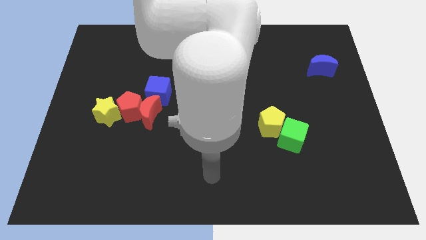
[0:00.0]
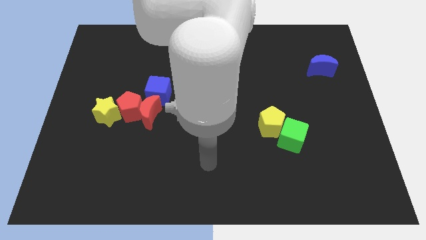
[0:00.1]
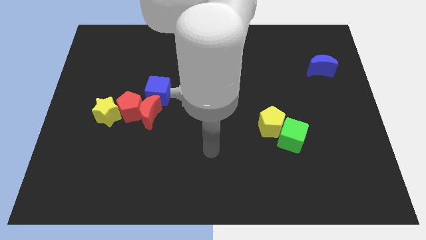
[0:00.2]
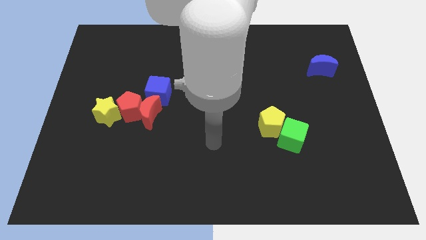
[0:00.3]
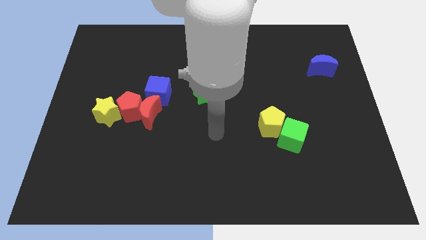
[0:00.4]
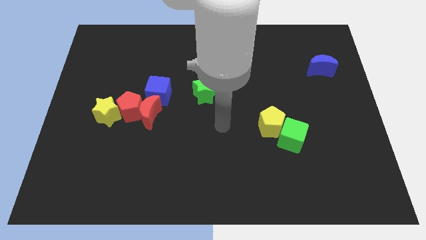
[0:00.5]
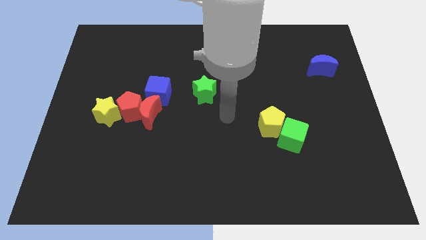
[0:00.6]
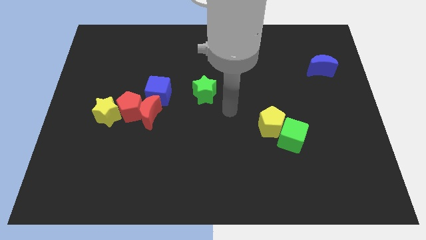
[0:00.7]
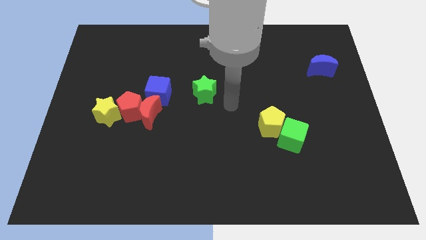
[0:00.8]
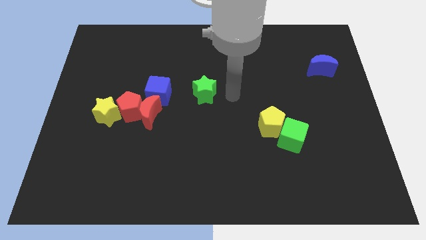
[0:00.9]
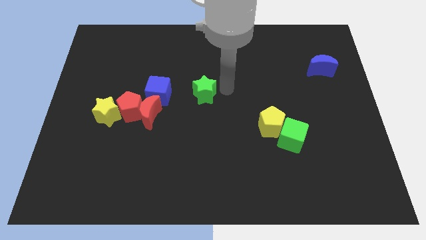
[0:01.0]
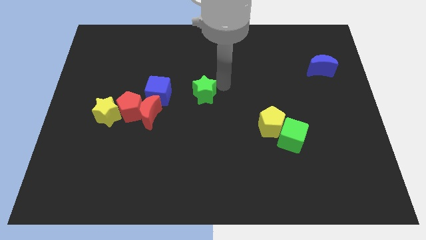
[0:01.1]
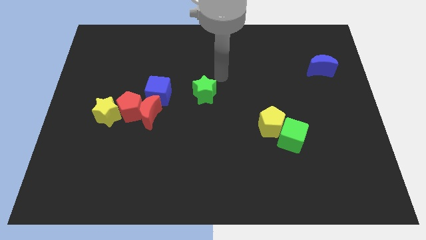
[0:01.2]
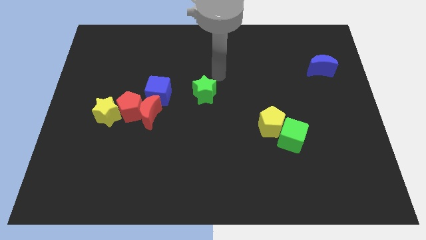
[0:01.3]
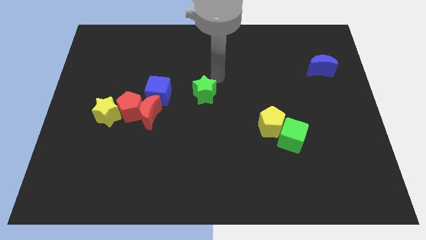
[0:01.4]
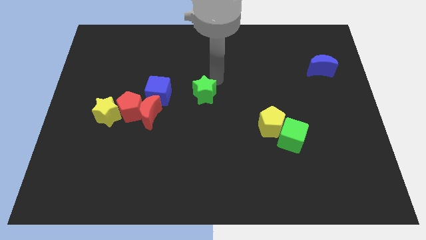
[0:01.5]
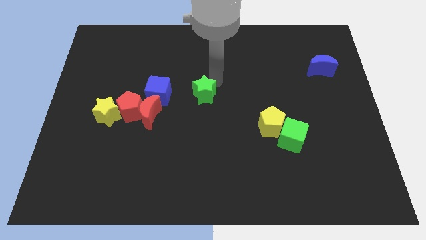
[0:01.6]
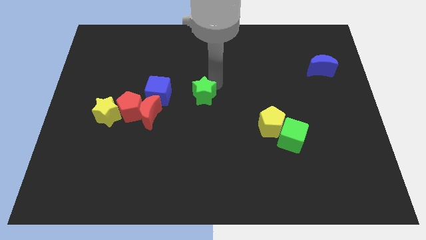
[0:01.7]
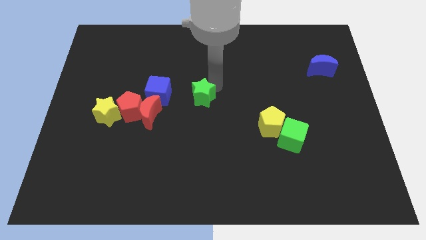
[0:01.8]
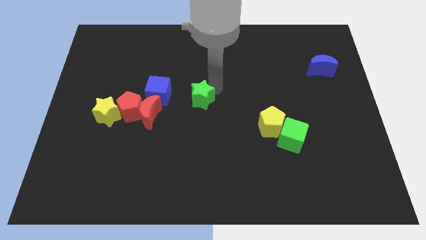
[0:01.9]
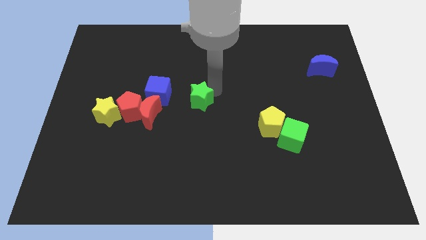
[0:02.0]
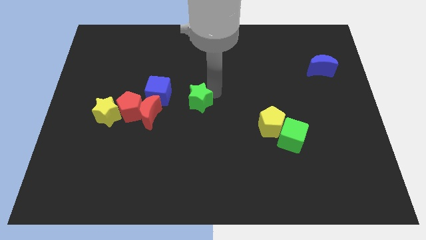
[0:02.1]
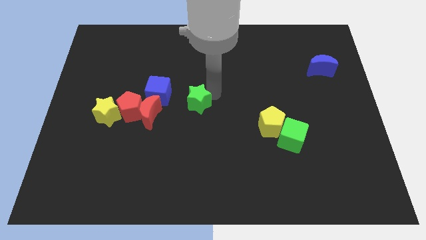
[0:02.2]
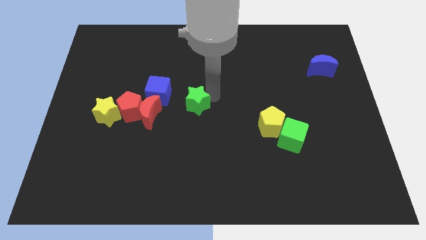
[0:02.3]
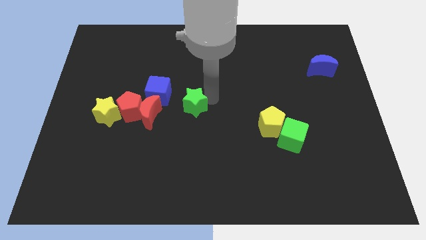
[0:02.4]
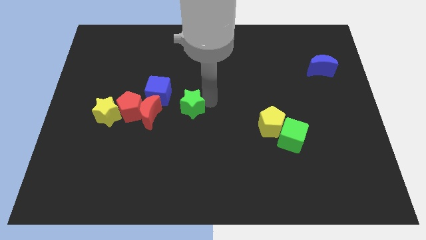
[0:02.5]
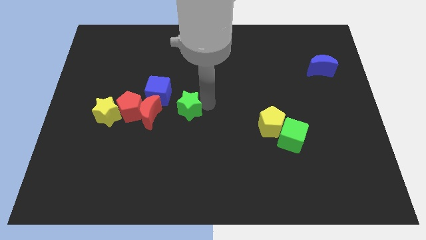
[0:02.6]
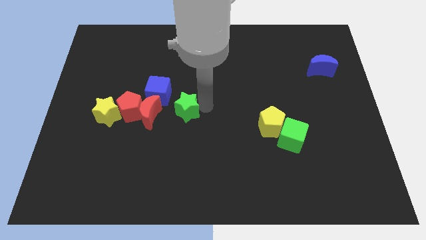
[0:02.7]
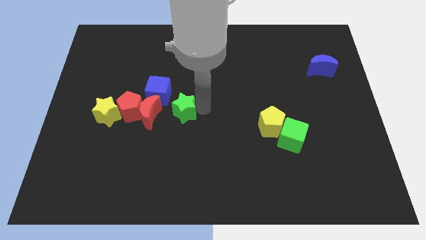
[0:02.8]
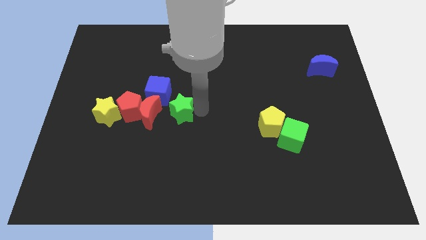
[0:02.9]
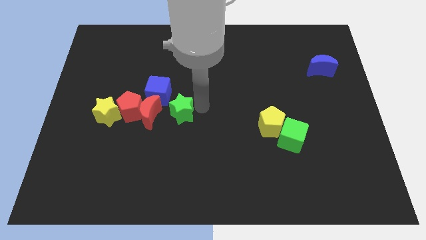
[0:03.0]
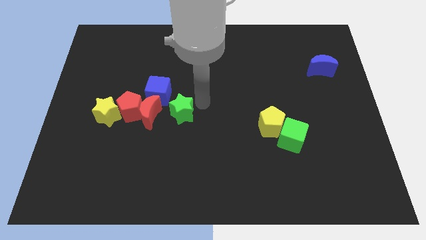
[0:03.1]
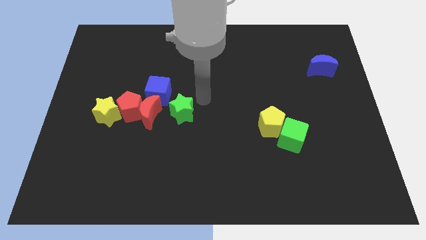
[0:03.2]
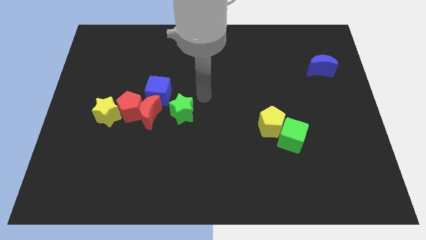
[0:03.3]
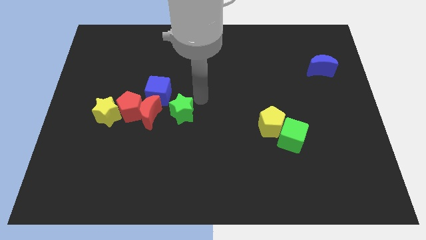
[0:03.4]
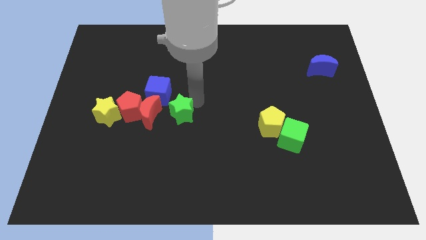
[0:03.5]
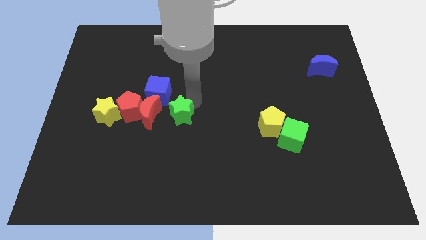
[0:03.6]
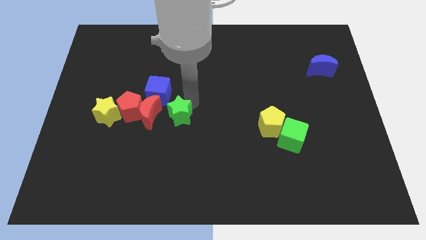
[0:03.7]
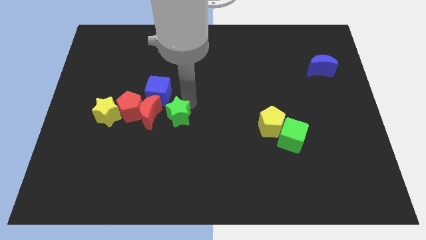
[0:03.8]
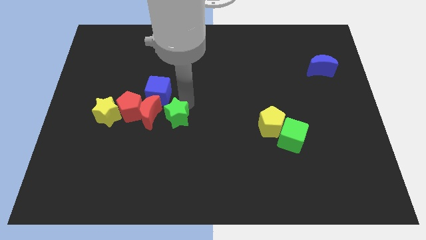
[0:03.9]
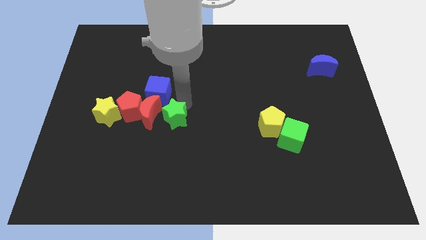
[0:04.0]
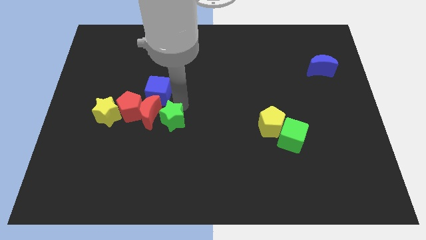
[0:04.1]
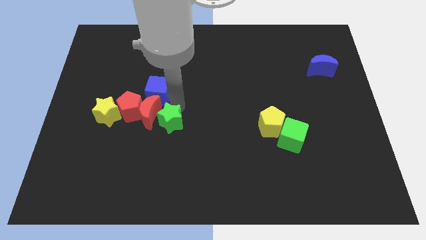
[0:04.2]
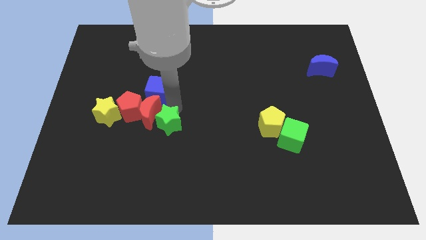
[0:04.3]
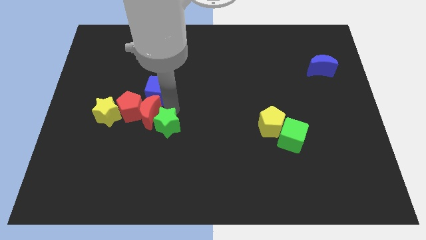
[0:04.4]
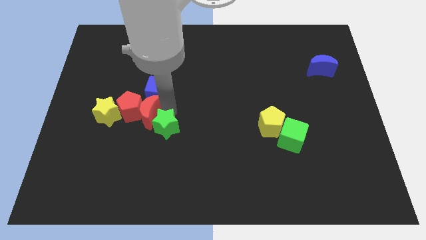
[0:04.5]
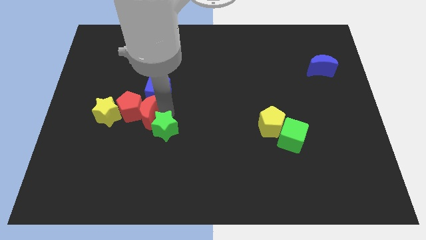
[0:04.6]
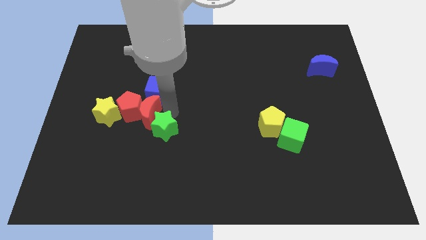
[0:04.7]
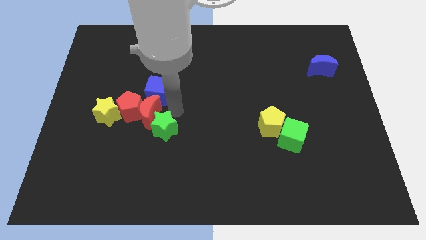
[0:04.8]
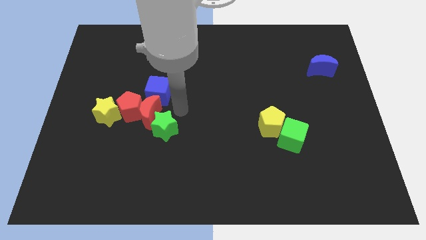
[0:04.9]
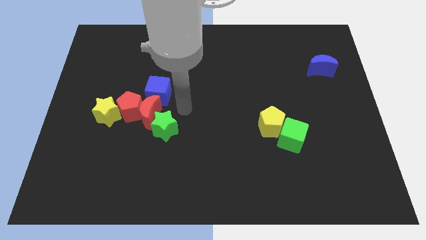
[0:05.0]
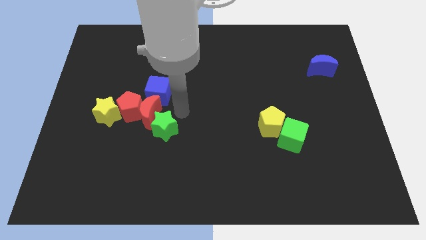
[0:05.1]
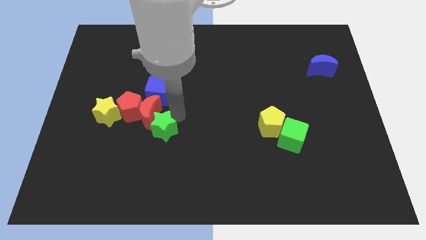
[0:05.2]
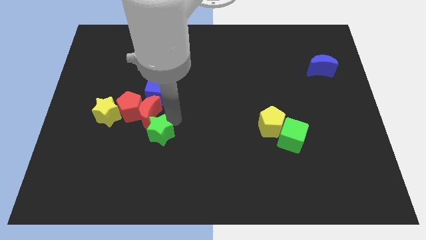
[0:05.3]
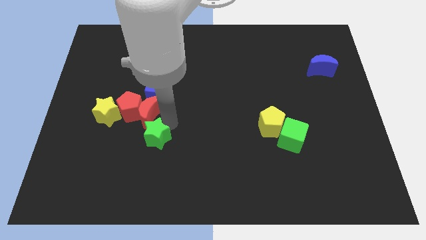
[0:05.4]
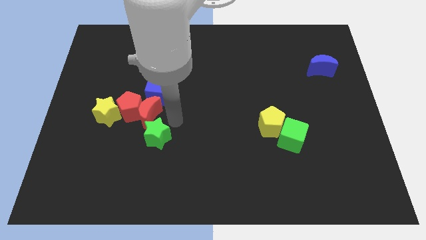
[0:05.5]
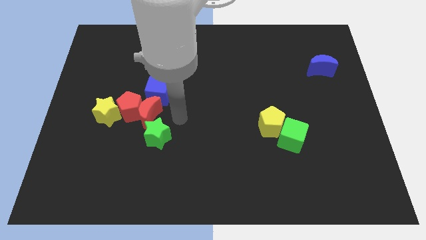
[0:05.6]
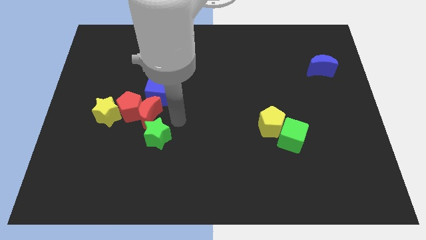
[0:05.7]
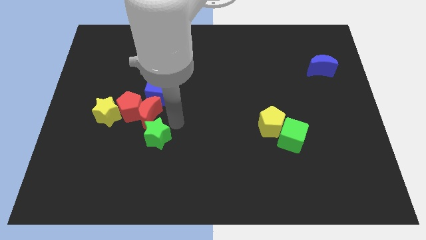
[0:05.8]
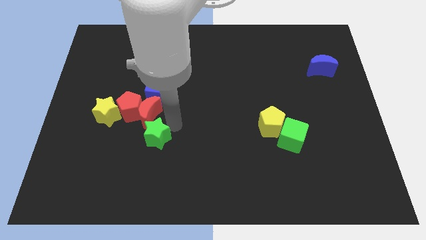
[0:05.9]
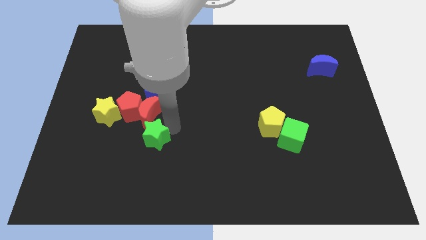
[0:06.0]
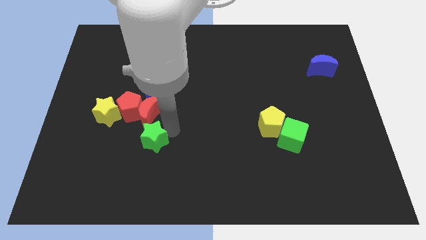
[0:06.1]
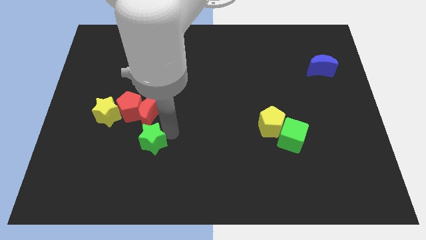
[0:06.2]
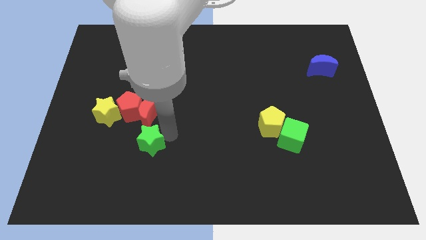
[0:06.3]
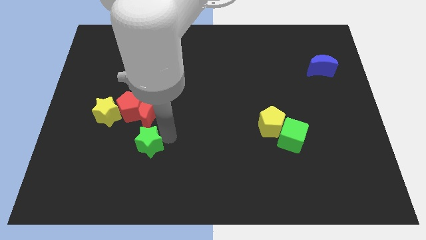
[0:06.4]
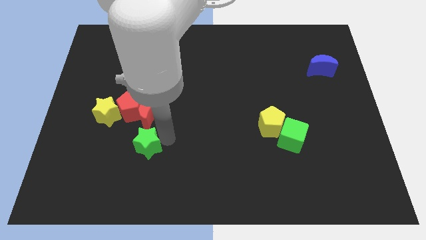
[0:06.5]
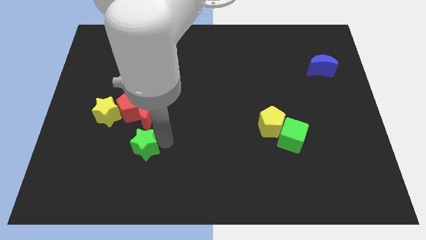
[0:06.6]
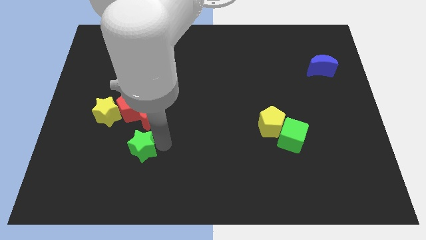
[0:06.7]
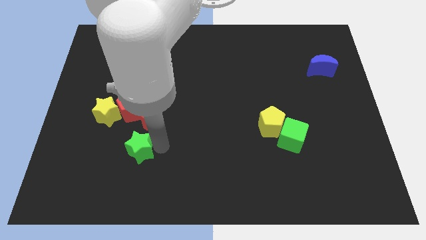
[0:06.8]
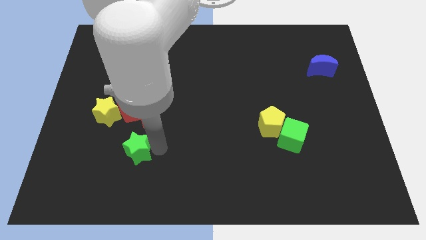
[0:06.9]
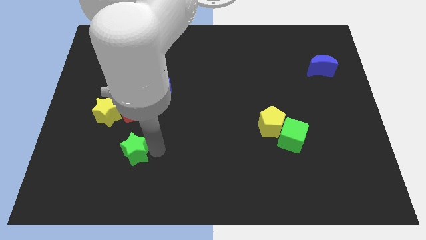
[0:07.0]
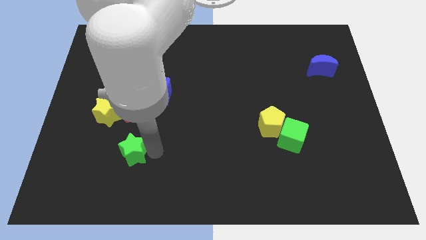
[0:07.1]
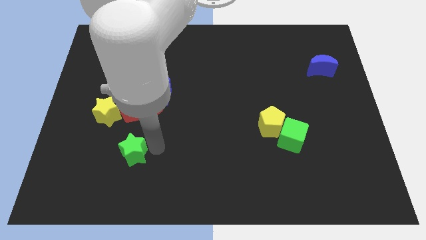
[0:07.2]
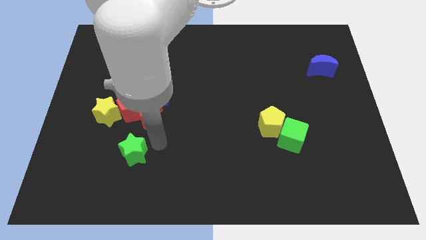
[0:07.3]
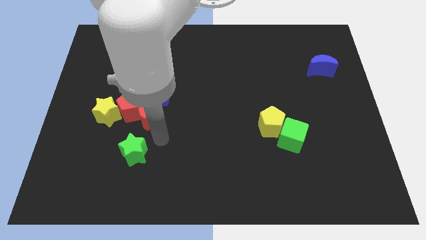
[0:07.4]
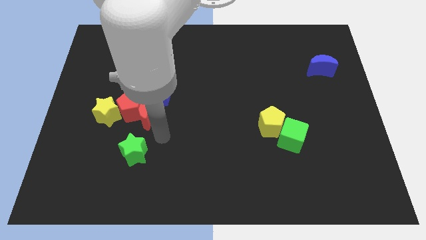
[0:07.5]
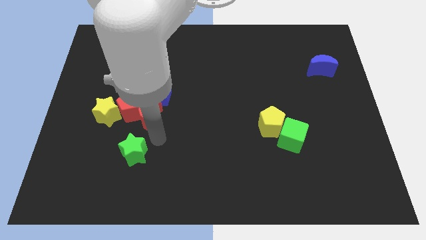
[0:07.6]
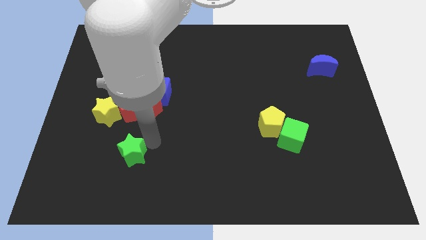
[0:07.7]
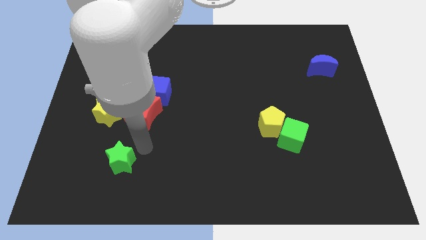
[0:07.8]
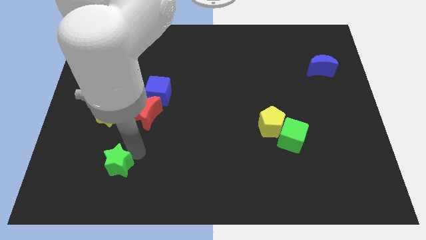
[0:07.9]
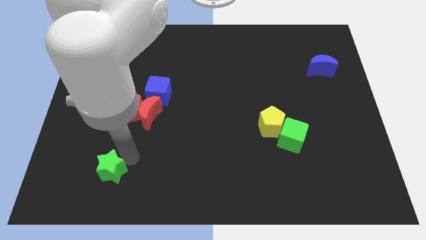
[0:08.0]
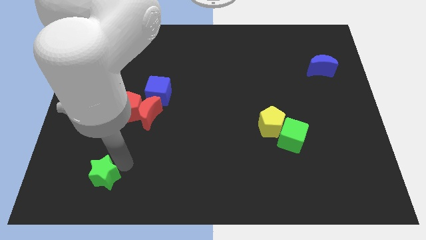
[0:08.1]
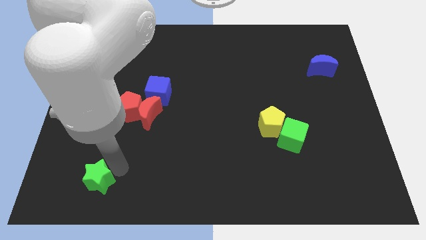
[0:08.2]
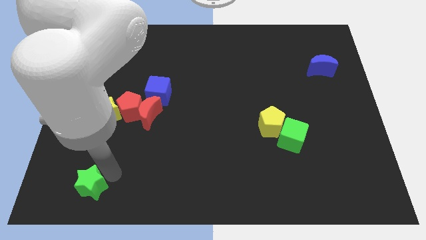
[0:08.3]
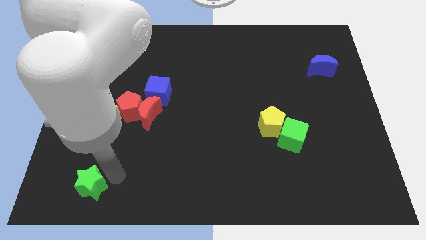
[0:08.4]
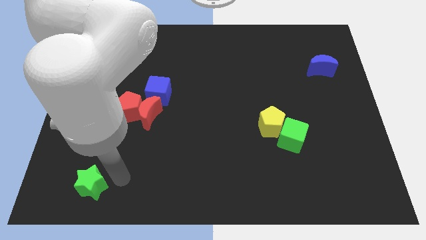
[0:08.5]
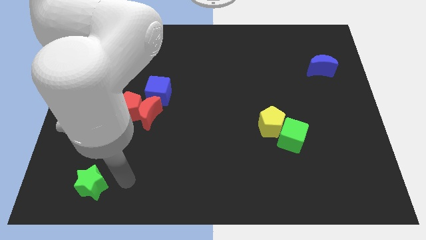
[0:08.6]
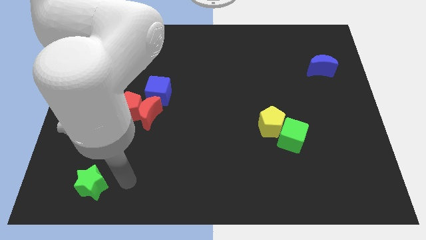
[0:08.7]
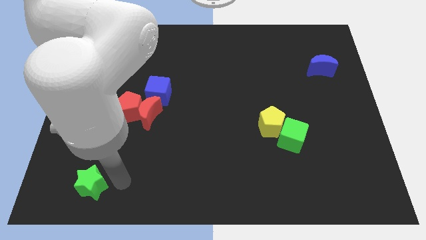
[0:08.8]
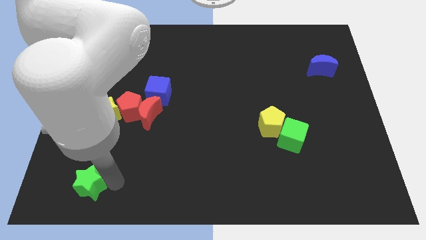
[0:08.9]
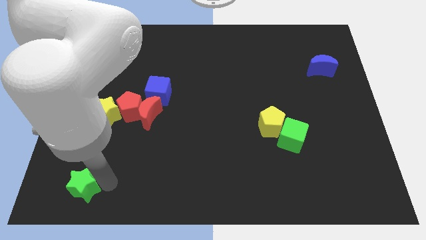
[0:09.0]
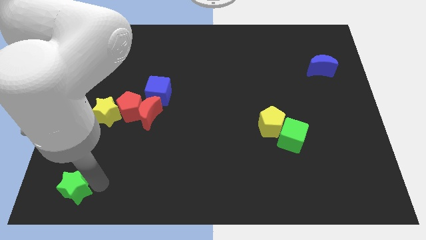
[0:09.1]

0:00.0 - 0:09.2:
slide the green star to the lower left corner
